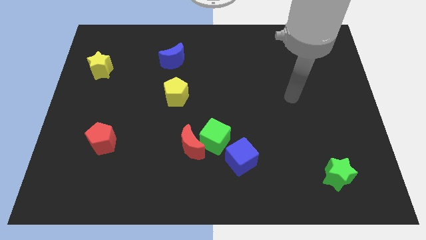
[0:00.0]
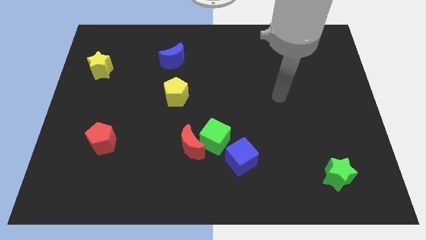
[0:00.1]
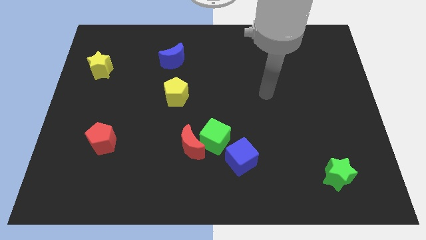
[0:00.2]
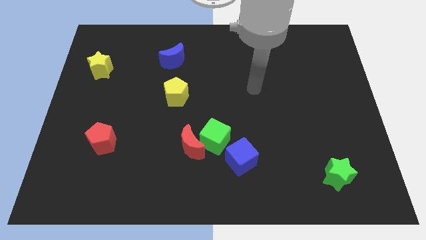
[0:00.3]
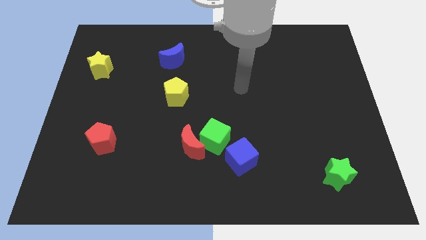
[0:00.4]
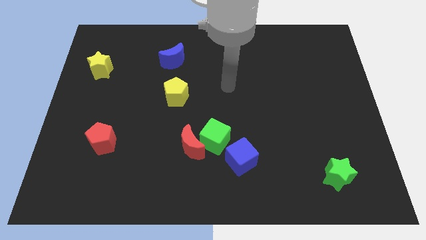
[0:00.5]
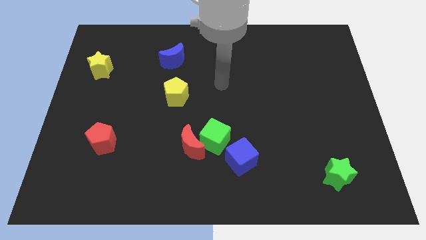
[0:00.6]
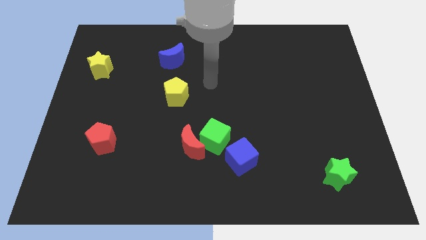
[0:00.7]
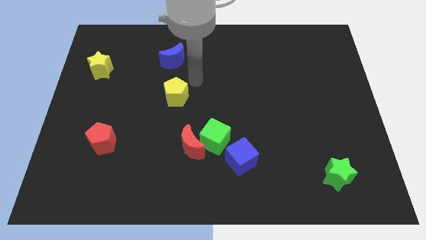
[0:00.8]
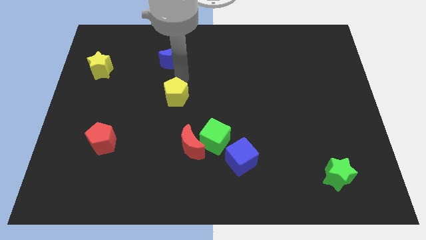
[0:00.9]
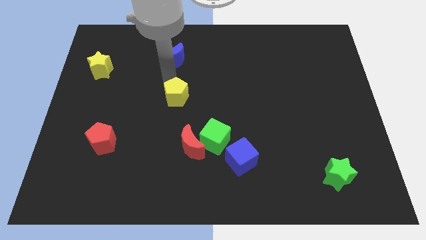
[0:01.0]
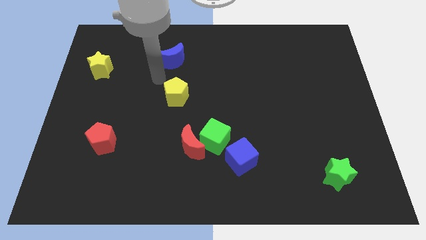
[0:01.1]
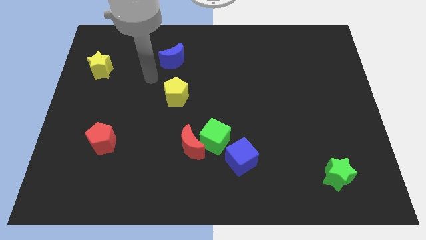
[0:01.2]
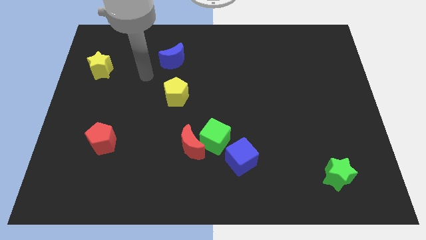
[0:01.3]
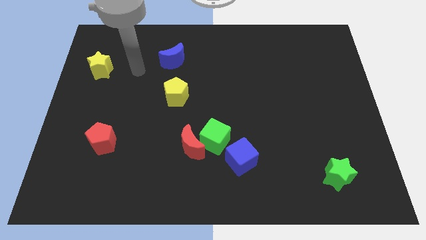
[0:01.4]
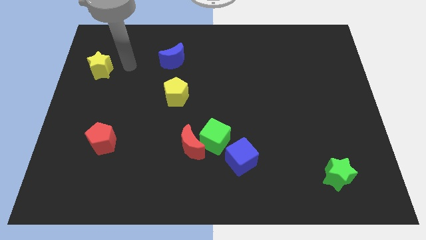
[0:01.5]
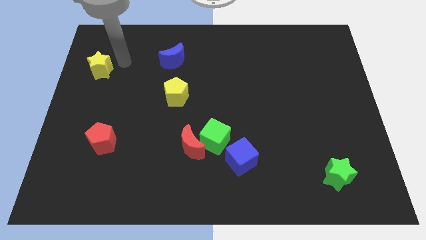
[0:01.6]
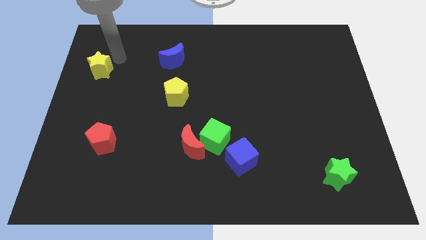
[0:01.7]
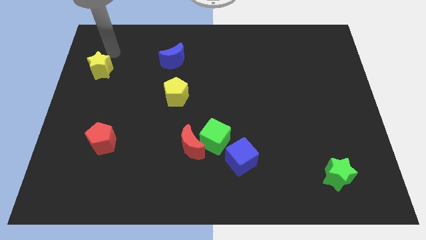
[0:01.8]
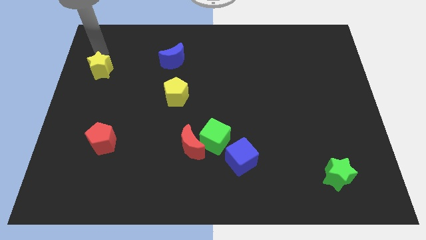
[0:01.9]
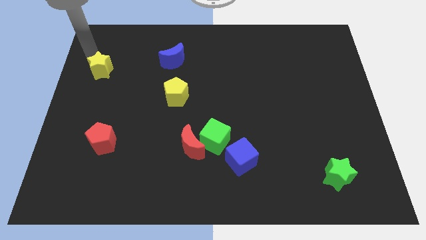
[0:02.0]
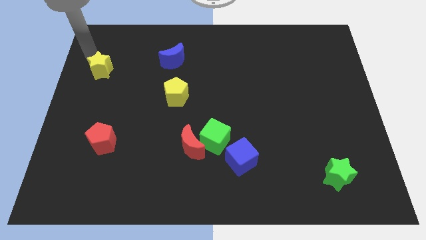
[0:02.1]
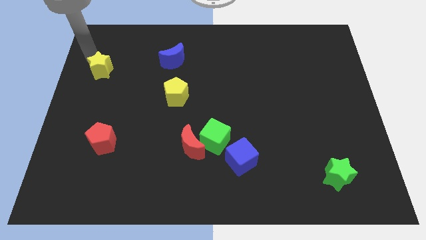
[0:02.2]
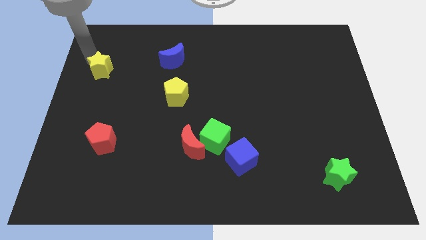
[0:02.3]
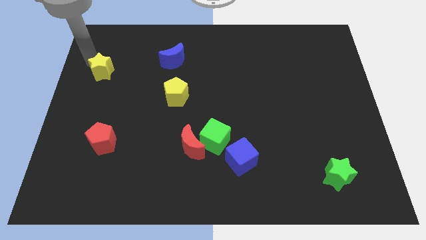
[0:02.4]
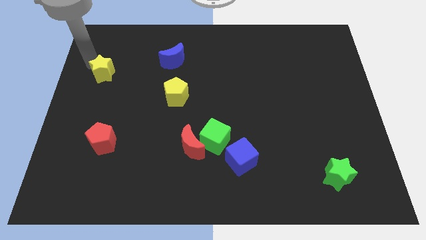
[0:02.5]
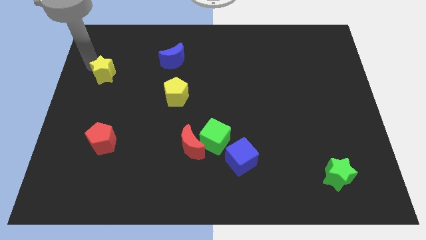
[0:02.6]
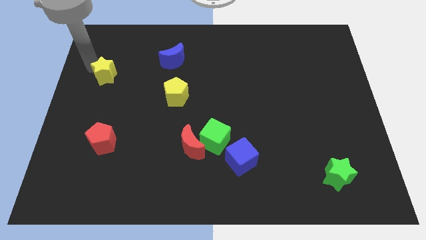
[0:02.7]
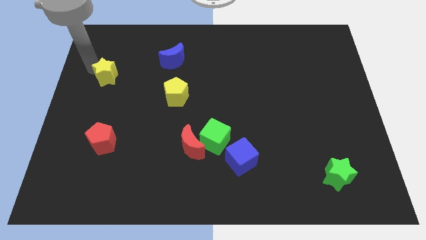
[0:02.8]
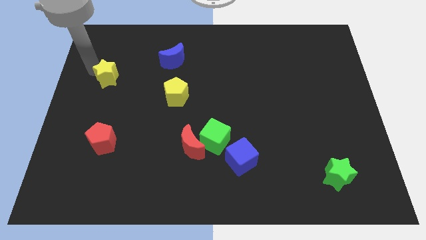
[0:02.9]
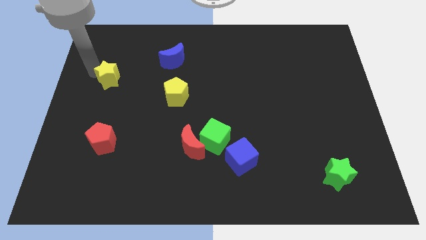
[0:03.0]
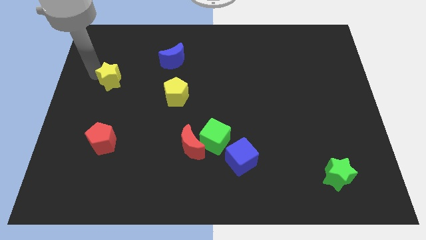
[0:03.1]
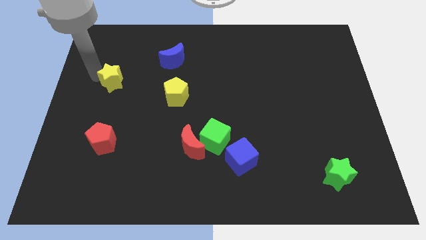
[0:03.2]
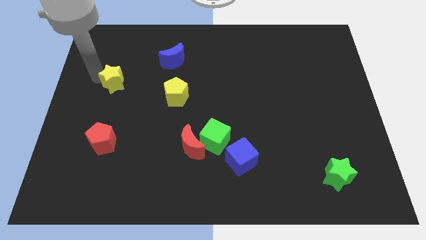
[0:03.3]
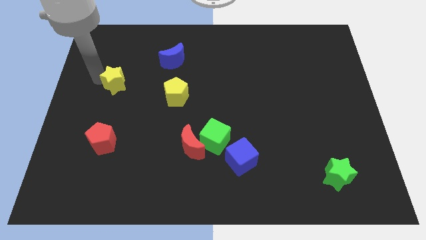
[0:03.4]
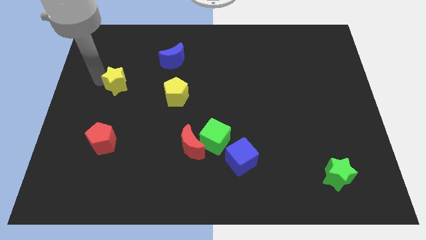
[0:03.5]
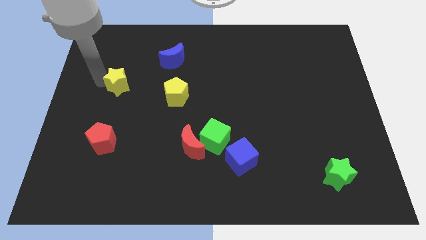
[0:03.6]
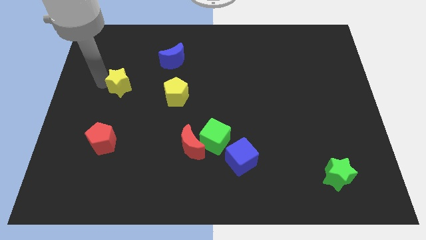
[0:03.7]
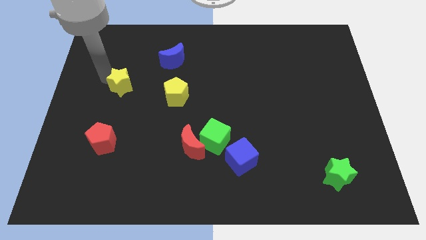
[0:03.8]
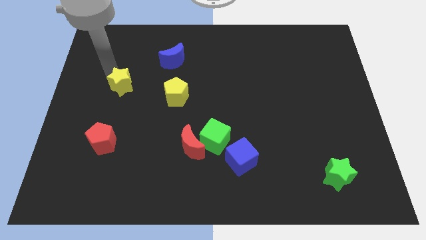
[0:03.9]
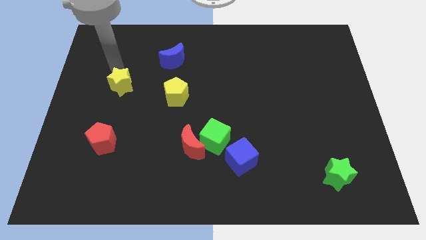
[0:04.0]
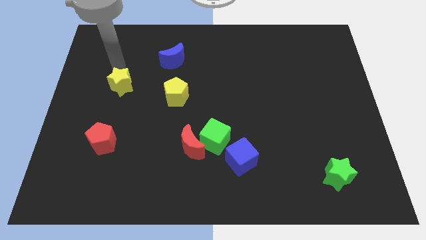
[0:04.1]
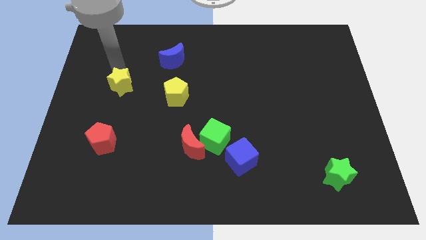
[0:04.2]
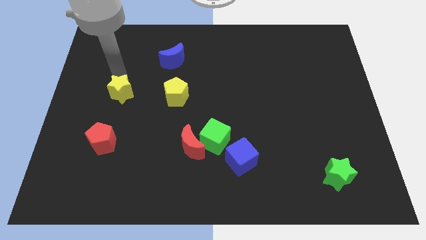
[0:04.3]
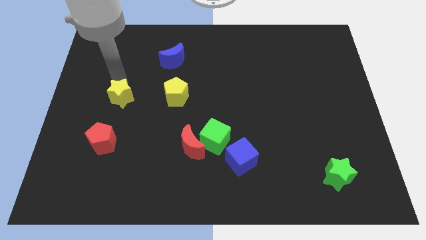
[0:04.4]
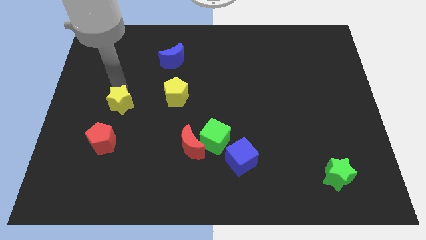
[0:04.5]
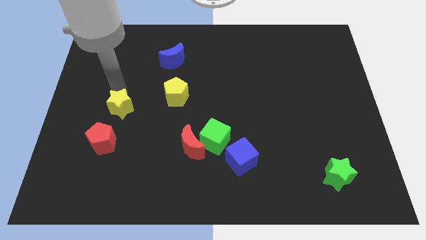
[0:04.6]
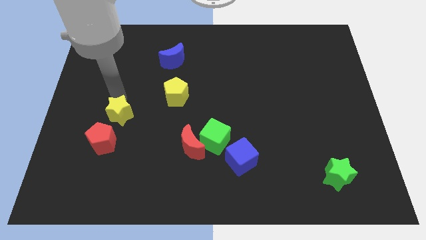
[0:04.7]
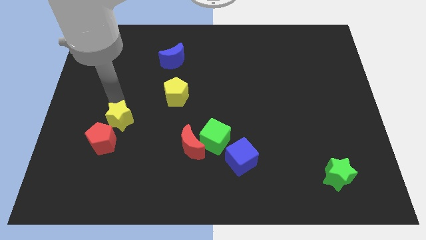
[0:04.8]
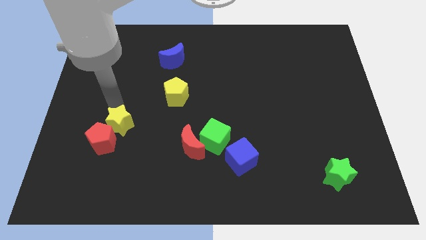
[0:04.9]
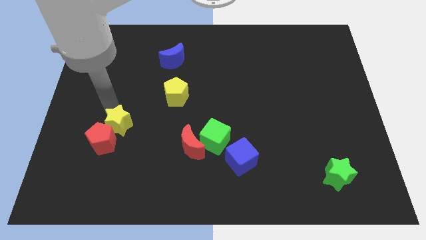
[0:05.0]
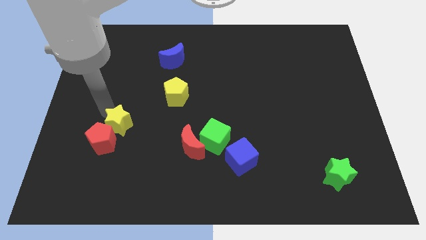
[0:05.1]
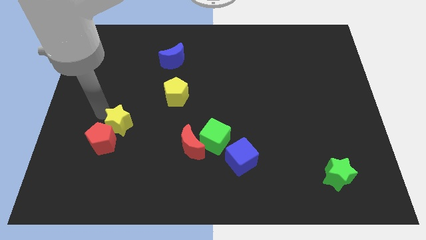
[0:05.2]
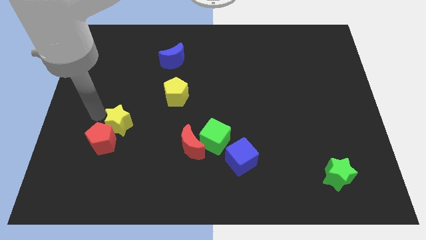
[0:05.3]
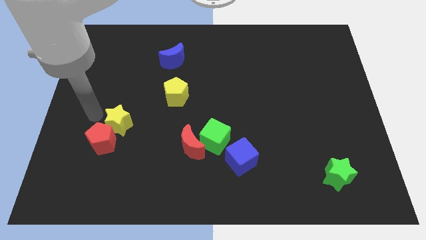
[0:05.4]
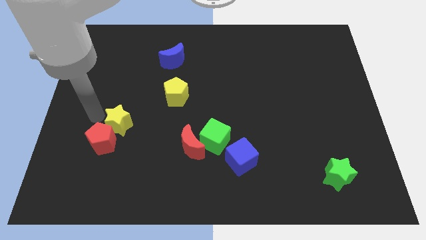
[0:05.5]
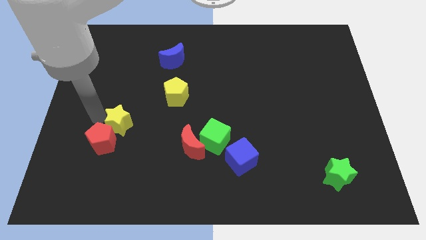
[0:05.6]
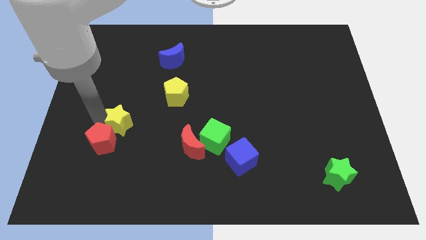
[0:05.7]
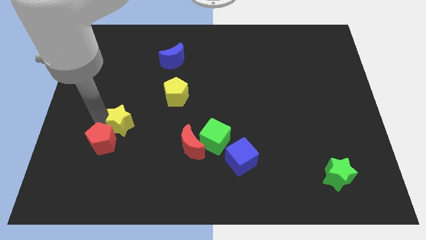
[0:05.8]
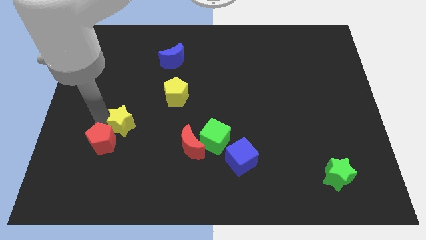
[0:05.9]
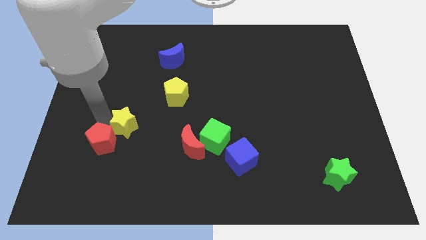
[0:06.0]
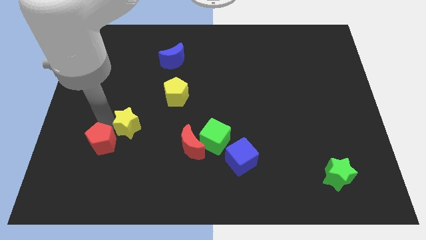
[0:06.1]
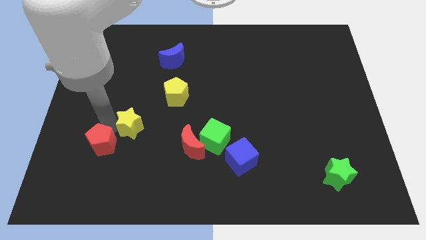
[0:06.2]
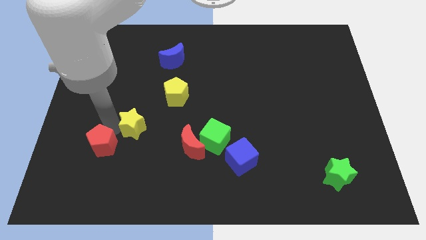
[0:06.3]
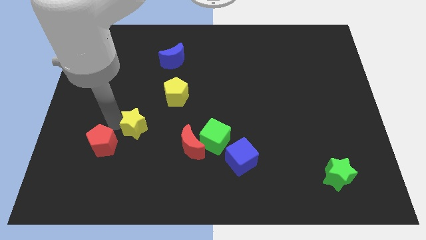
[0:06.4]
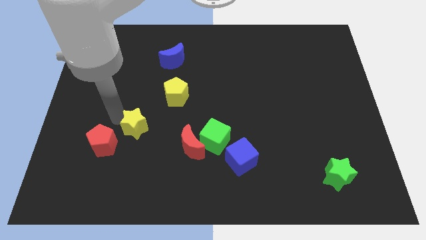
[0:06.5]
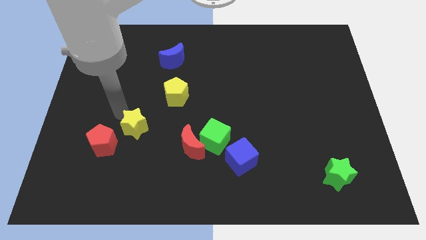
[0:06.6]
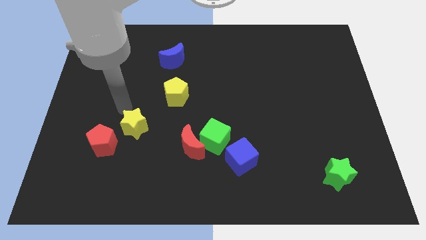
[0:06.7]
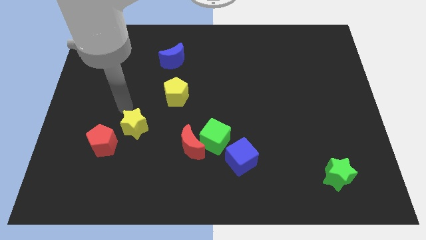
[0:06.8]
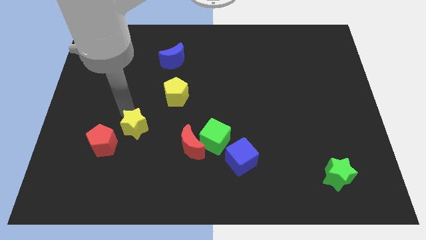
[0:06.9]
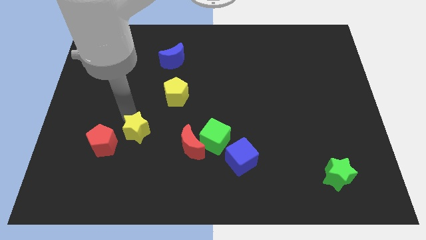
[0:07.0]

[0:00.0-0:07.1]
push the yellow star left of the red moon
